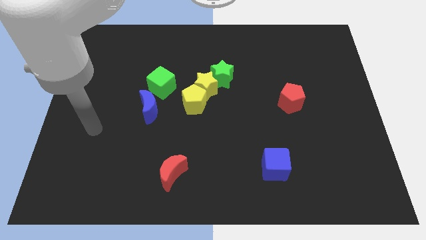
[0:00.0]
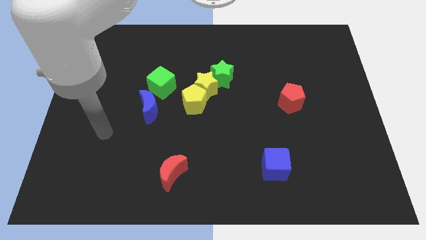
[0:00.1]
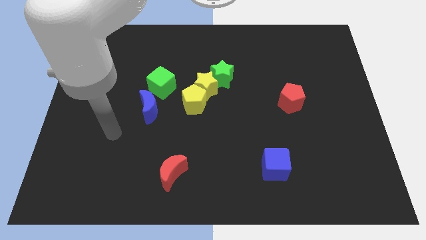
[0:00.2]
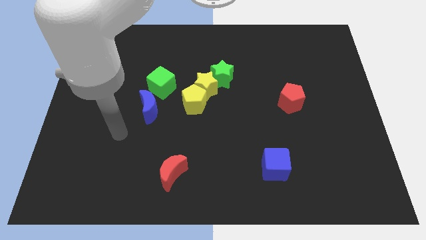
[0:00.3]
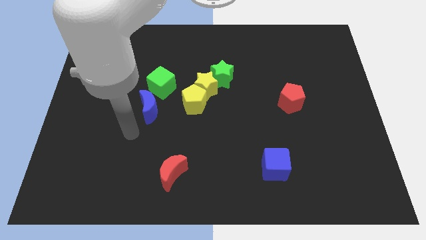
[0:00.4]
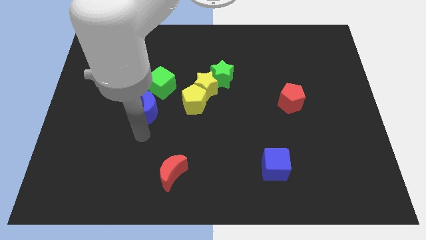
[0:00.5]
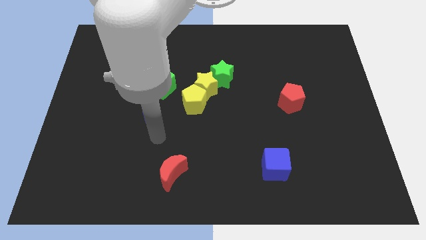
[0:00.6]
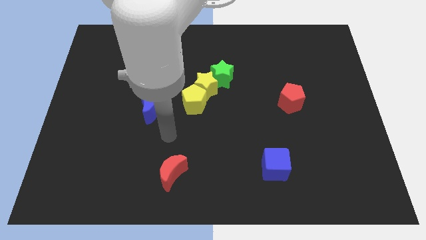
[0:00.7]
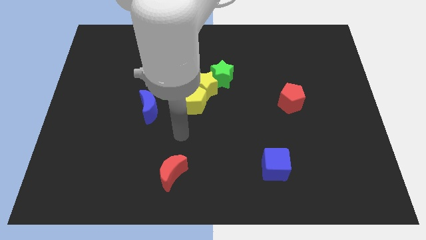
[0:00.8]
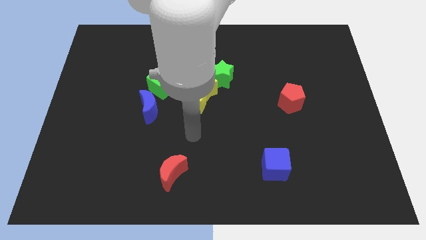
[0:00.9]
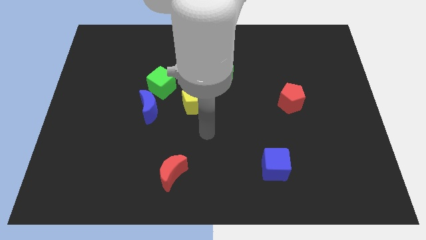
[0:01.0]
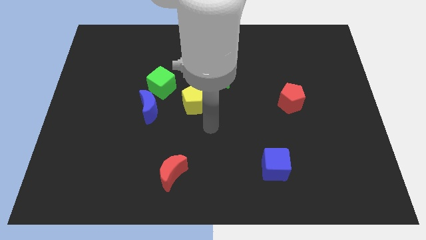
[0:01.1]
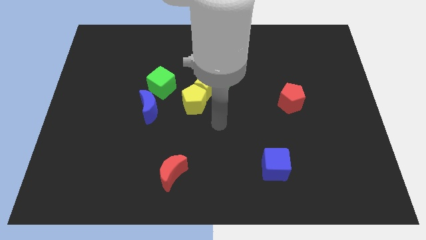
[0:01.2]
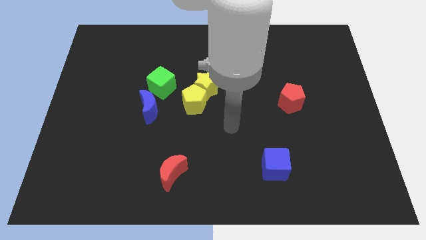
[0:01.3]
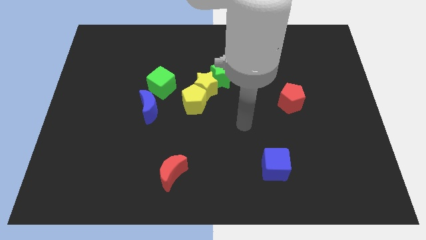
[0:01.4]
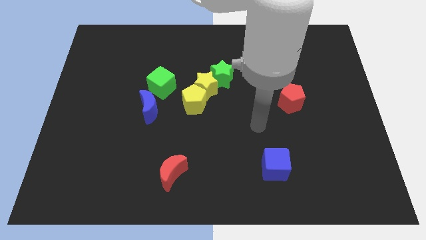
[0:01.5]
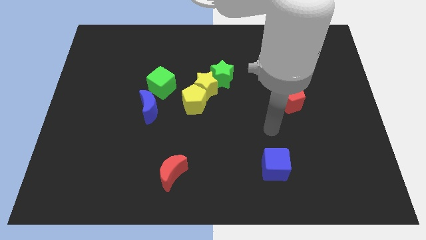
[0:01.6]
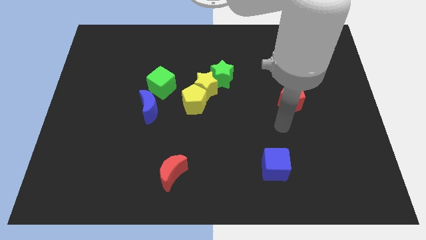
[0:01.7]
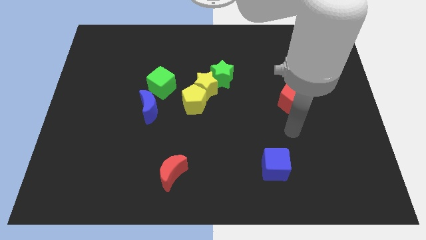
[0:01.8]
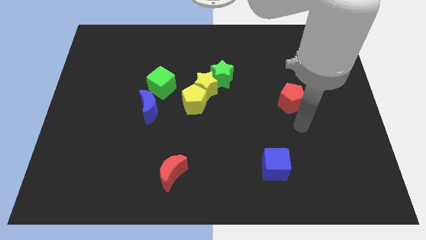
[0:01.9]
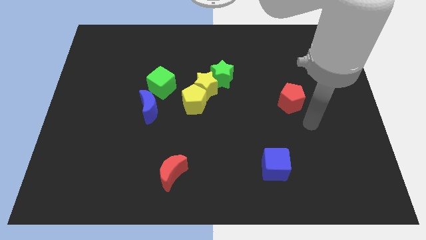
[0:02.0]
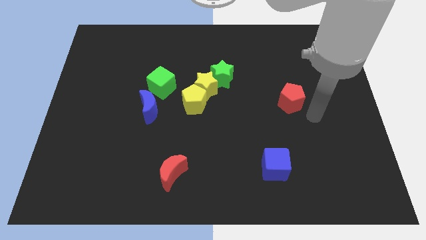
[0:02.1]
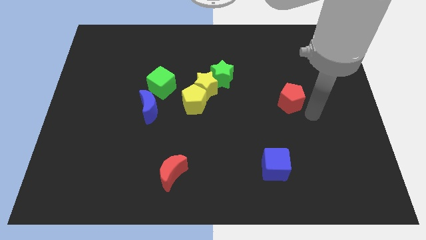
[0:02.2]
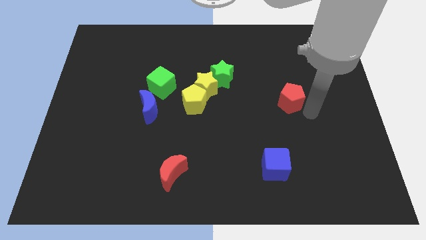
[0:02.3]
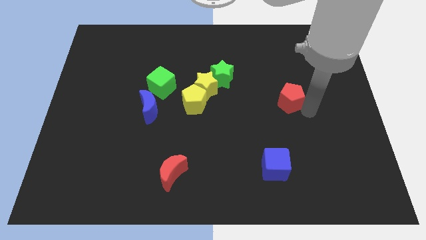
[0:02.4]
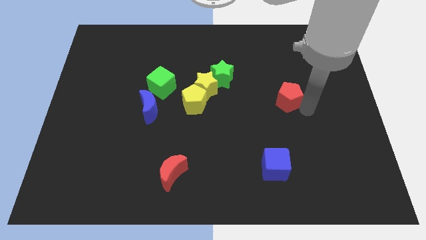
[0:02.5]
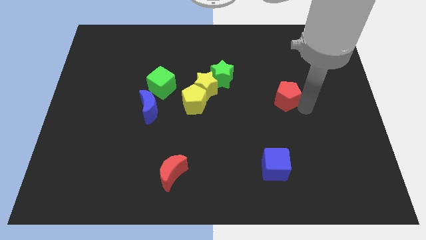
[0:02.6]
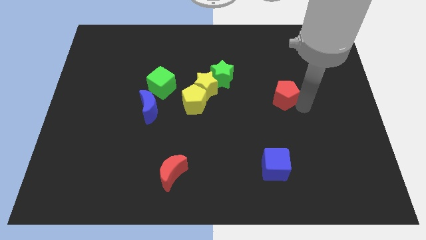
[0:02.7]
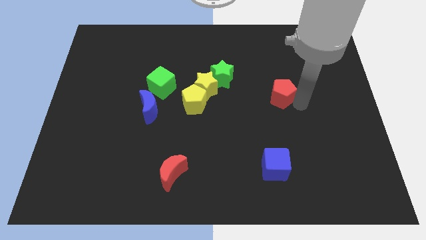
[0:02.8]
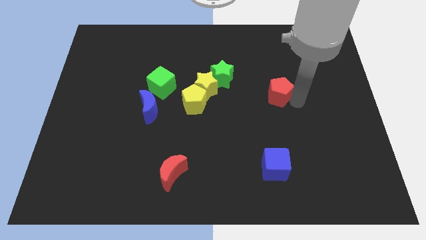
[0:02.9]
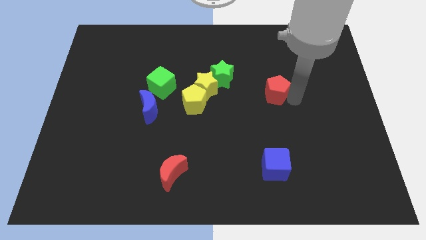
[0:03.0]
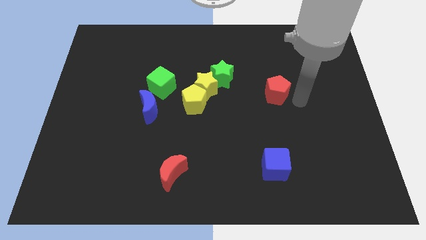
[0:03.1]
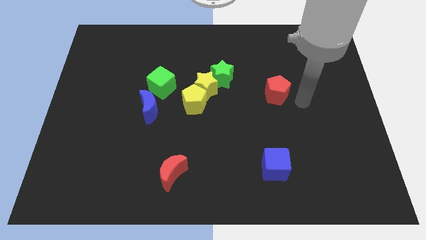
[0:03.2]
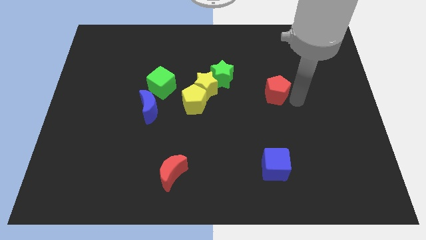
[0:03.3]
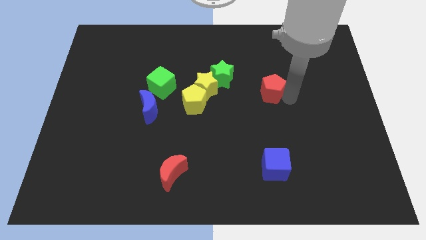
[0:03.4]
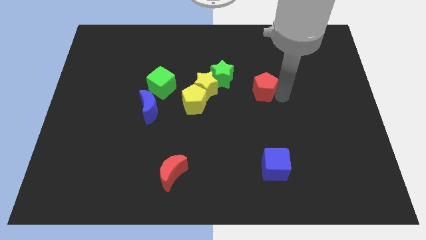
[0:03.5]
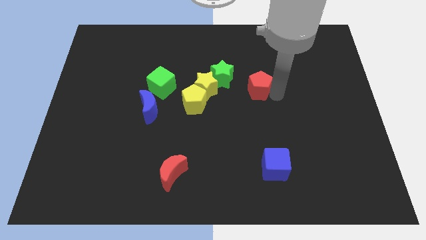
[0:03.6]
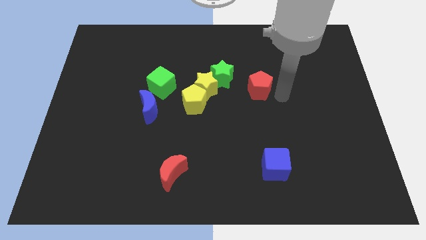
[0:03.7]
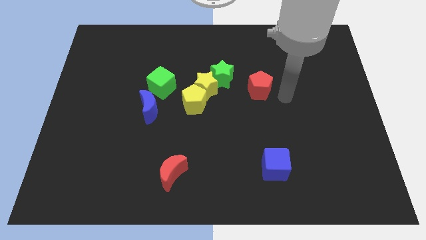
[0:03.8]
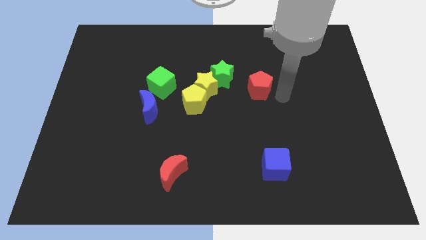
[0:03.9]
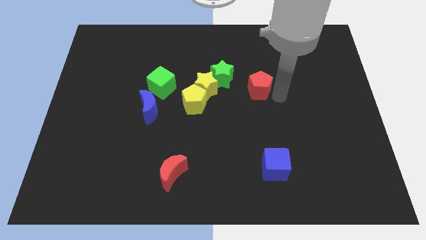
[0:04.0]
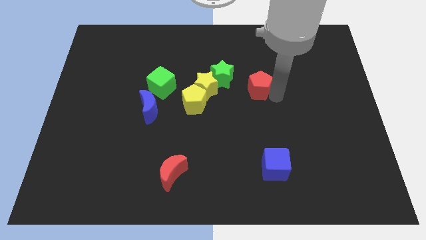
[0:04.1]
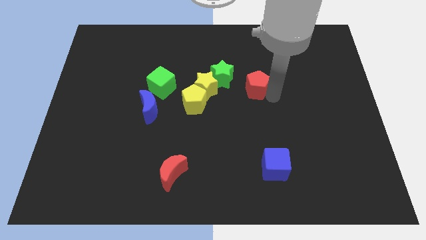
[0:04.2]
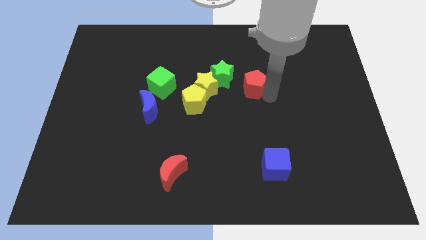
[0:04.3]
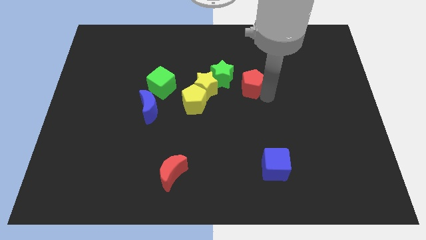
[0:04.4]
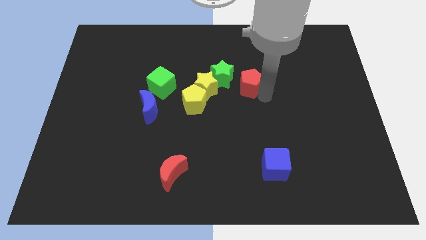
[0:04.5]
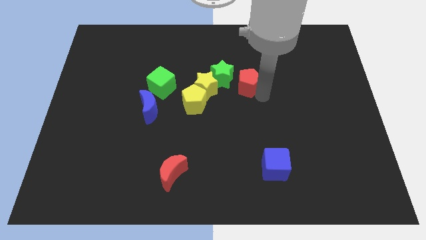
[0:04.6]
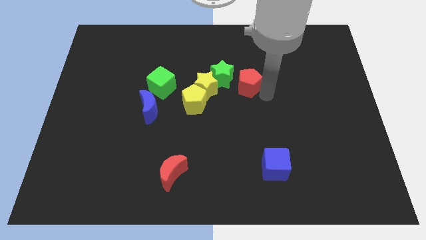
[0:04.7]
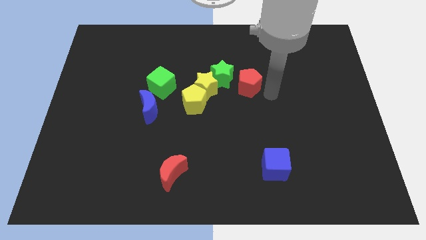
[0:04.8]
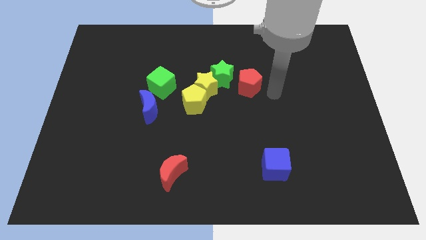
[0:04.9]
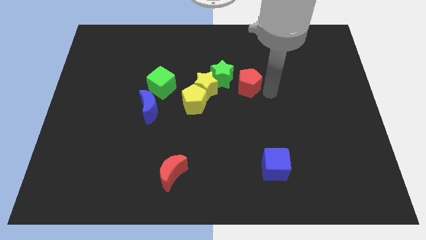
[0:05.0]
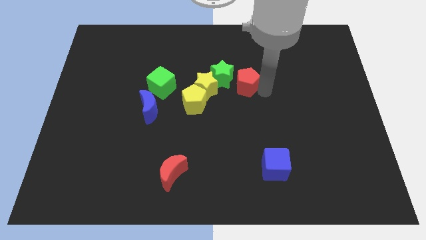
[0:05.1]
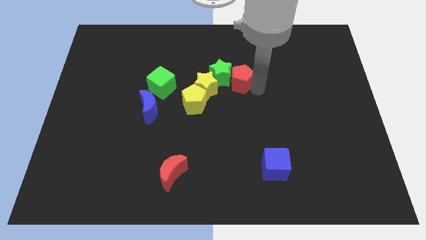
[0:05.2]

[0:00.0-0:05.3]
slide the red pentagon next to the green star

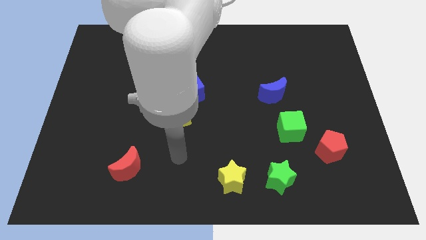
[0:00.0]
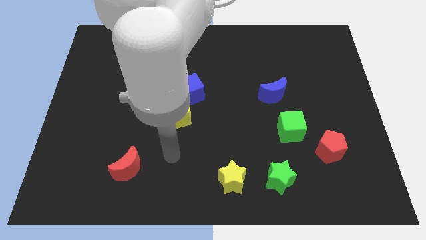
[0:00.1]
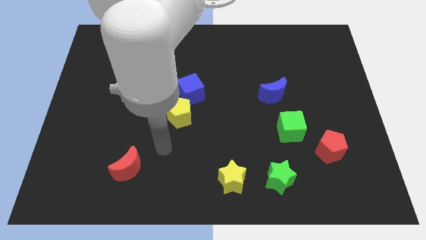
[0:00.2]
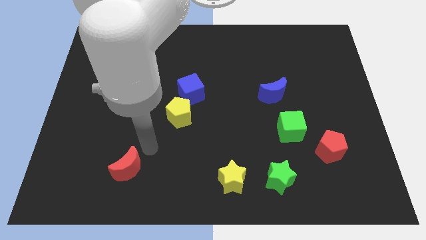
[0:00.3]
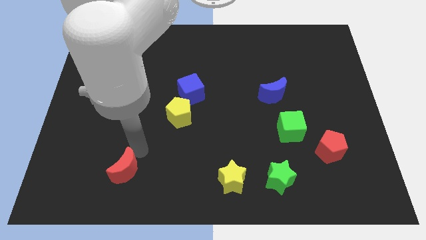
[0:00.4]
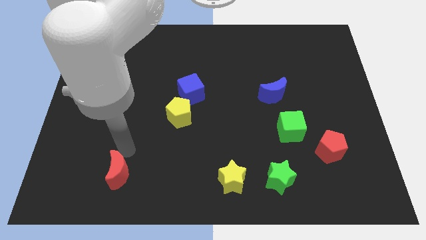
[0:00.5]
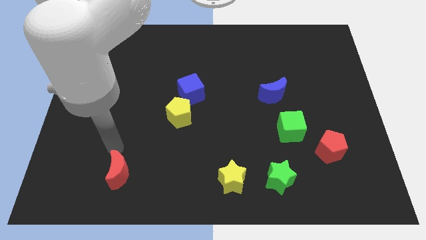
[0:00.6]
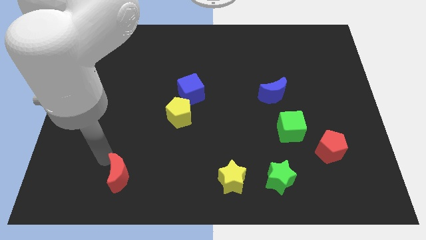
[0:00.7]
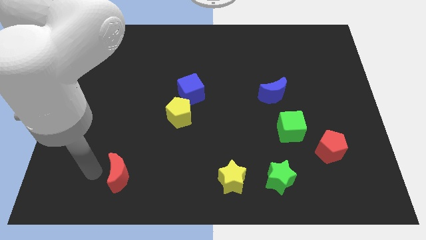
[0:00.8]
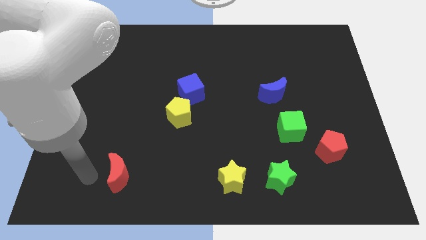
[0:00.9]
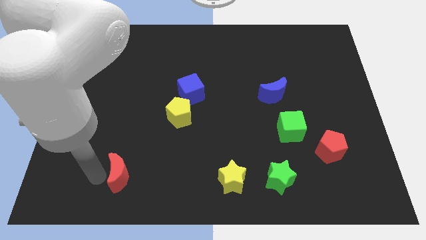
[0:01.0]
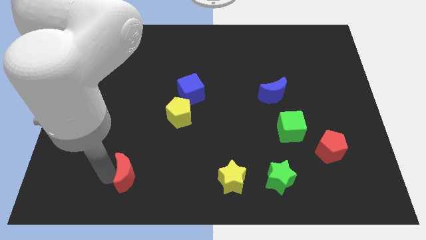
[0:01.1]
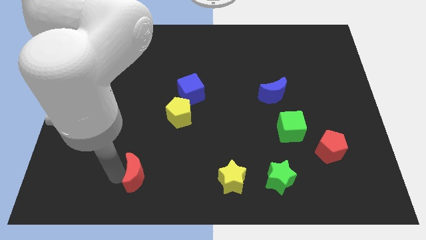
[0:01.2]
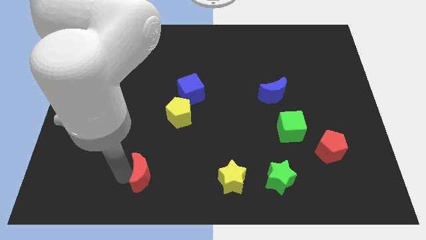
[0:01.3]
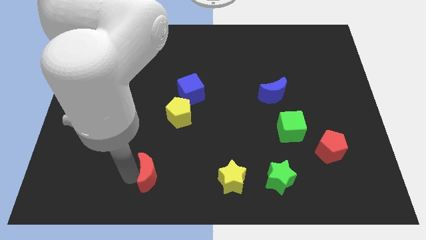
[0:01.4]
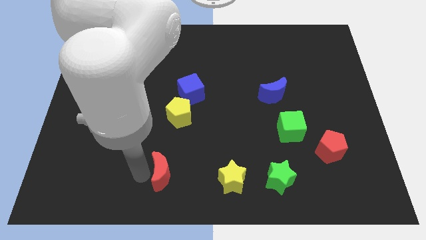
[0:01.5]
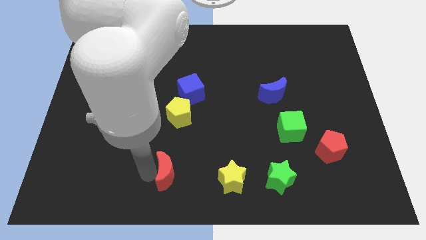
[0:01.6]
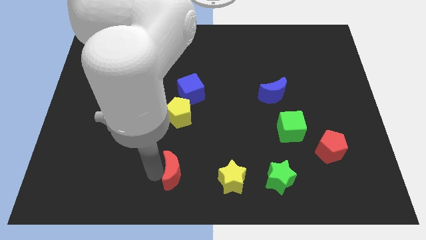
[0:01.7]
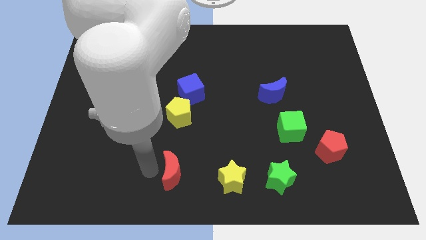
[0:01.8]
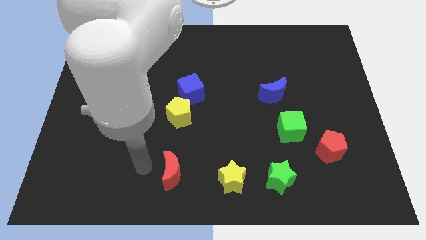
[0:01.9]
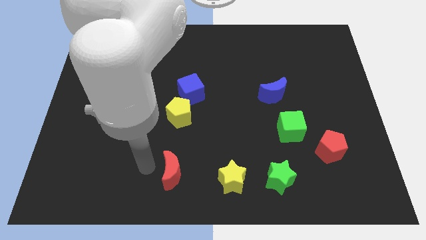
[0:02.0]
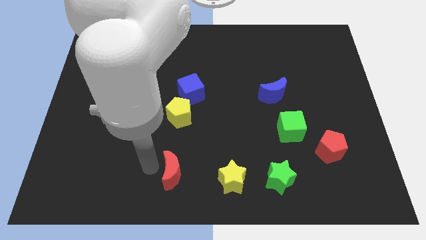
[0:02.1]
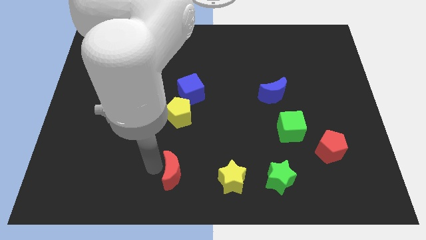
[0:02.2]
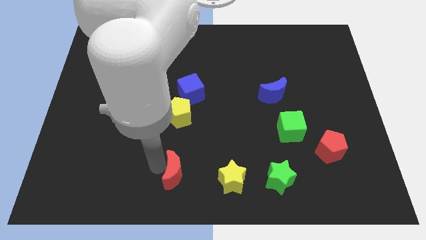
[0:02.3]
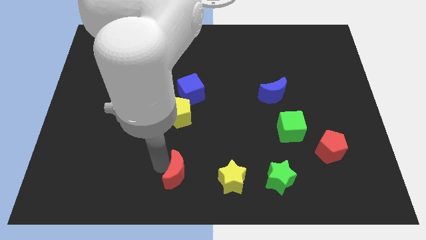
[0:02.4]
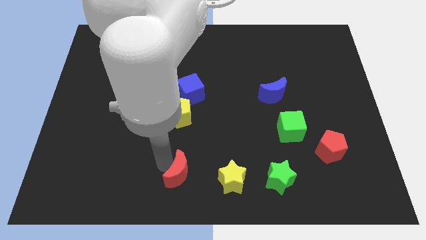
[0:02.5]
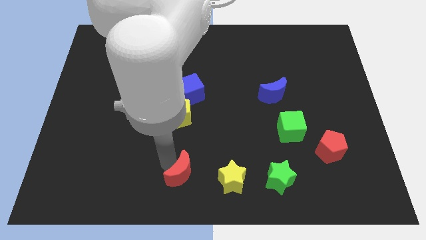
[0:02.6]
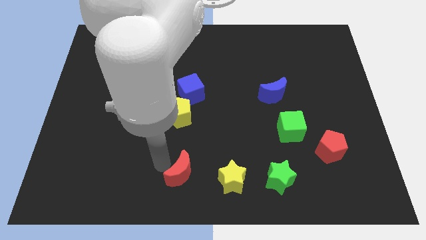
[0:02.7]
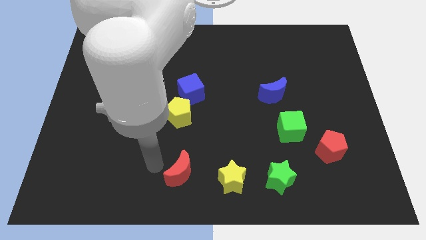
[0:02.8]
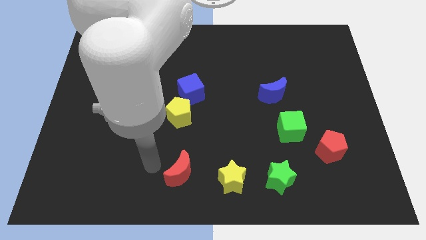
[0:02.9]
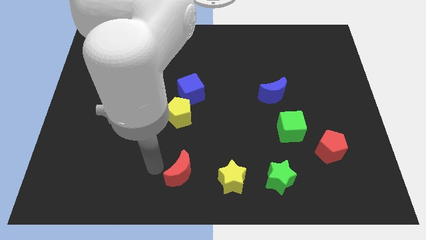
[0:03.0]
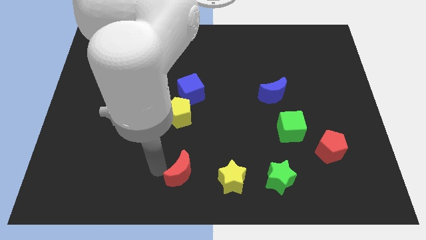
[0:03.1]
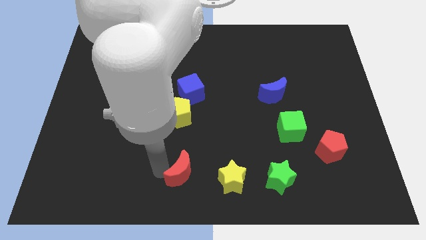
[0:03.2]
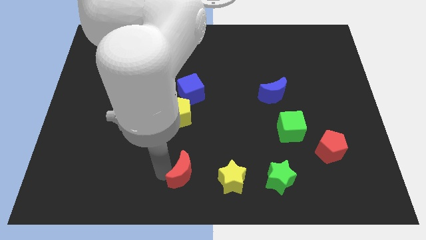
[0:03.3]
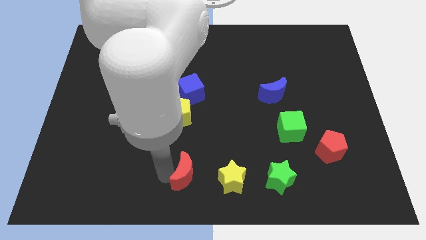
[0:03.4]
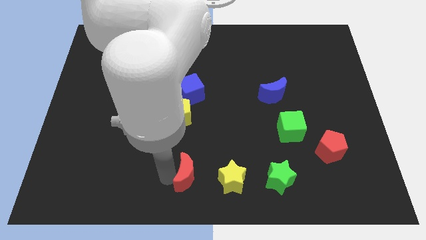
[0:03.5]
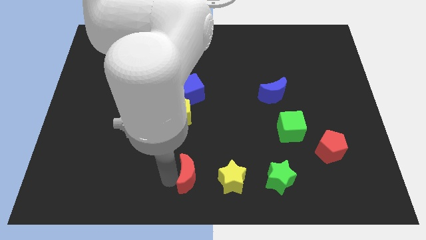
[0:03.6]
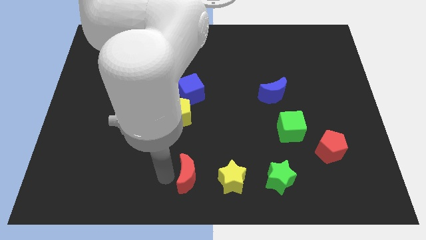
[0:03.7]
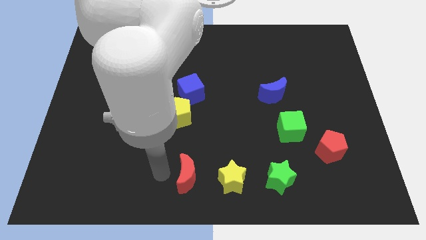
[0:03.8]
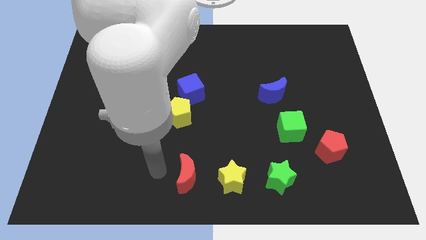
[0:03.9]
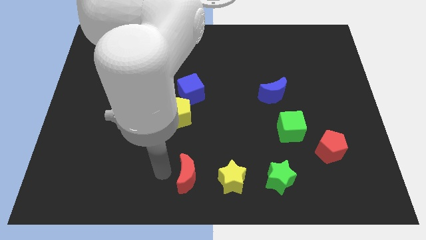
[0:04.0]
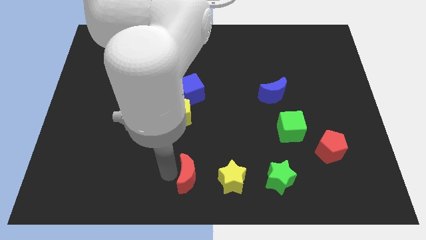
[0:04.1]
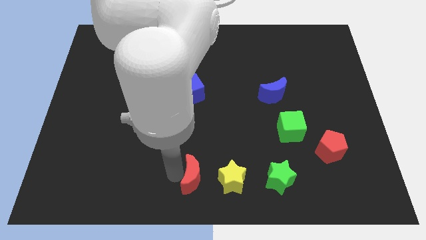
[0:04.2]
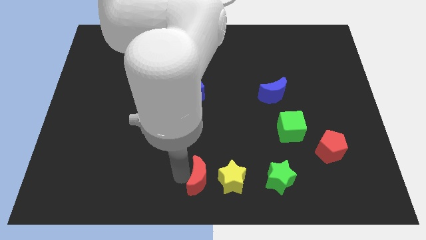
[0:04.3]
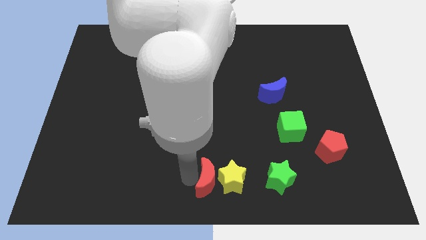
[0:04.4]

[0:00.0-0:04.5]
slide the red moon close to the yellow star
